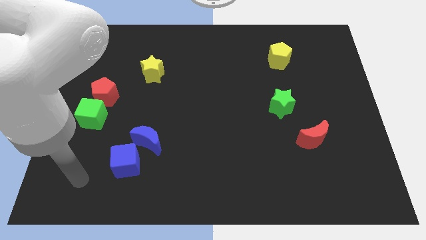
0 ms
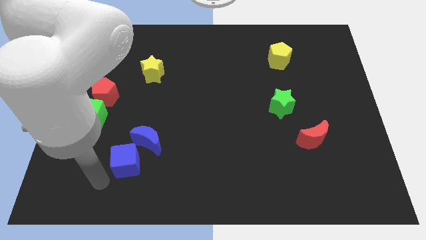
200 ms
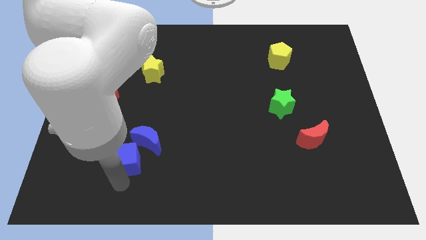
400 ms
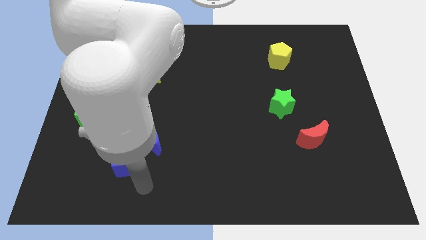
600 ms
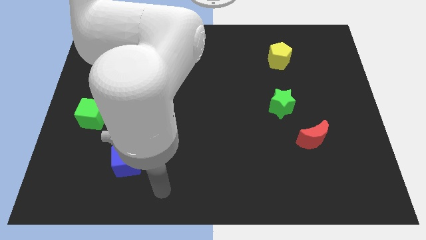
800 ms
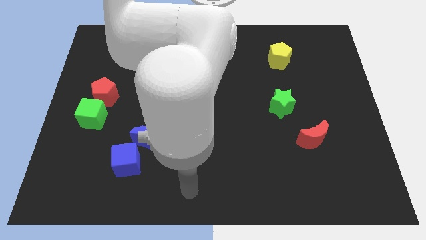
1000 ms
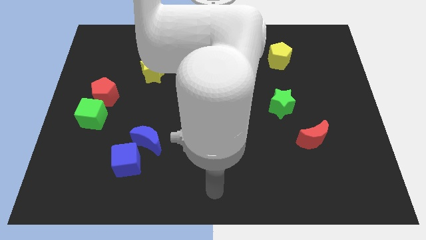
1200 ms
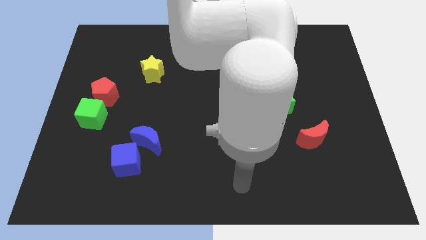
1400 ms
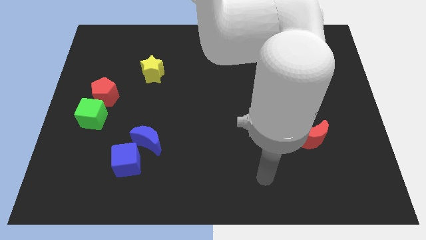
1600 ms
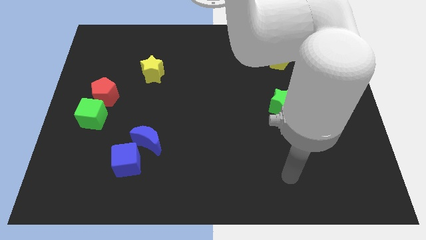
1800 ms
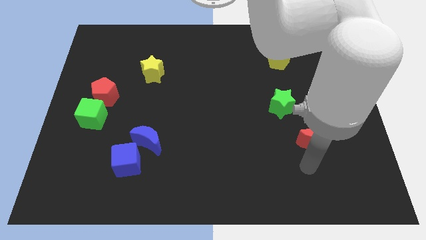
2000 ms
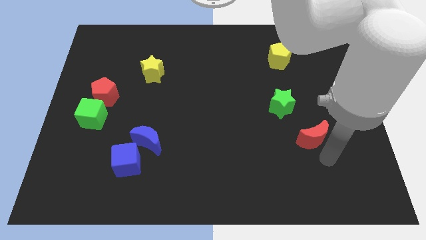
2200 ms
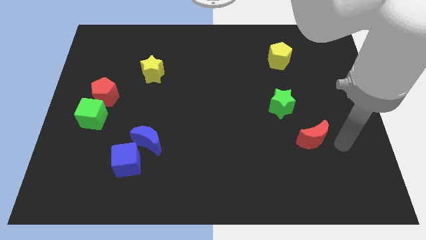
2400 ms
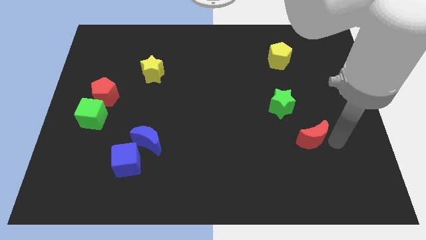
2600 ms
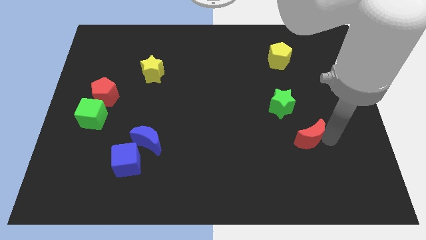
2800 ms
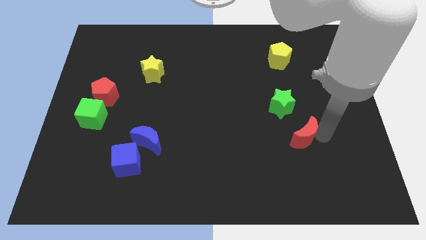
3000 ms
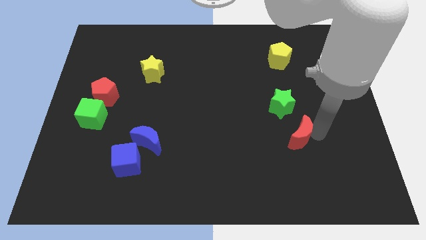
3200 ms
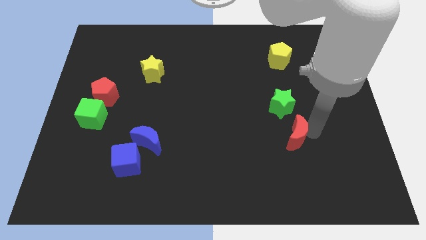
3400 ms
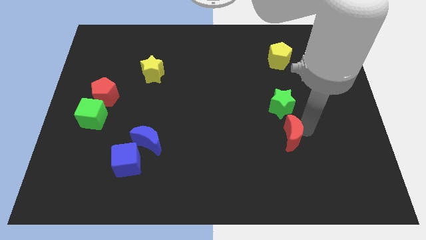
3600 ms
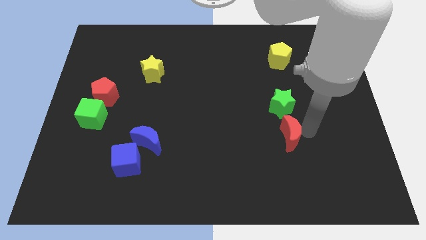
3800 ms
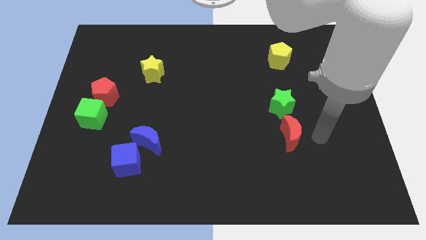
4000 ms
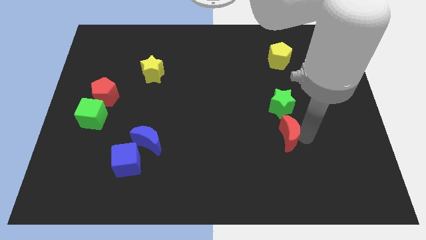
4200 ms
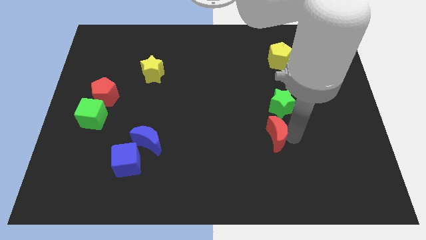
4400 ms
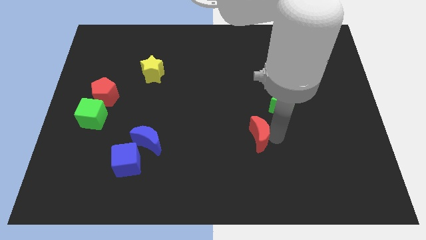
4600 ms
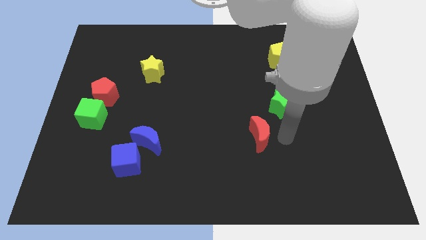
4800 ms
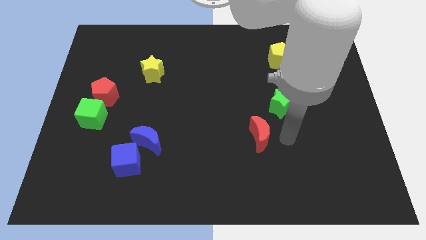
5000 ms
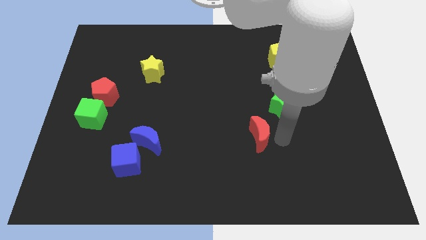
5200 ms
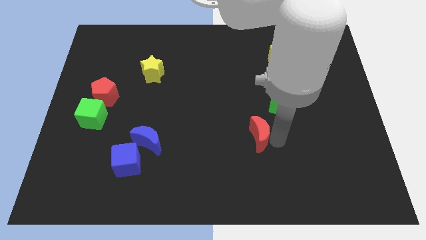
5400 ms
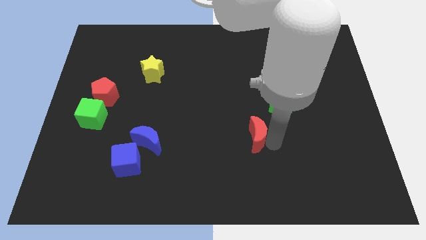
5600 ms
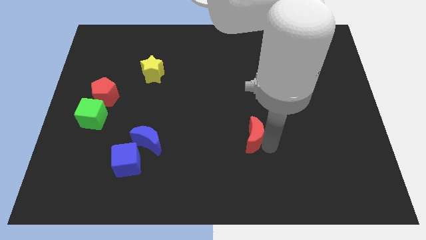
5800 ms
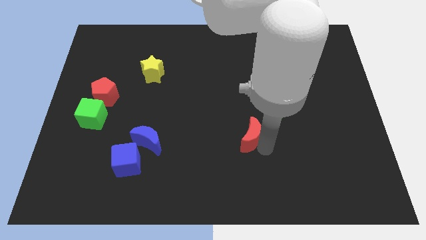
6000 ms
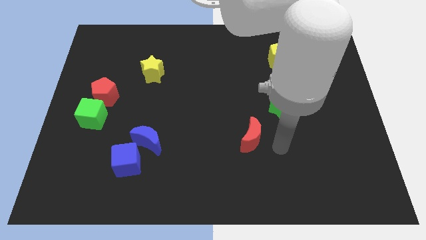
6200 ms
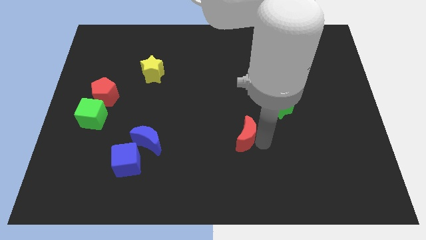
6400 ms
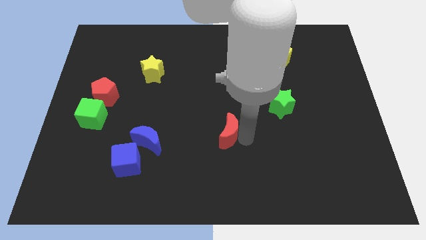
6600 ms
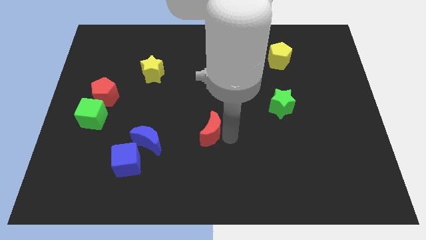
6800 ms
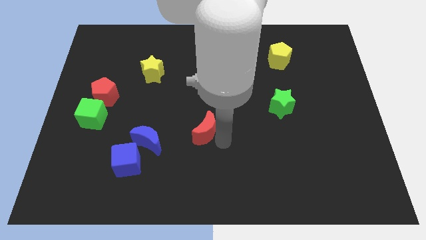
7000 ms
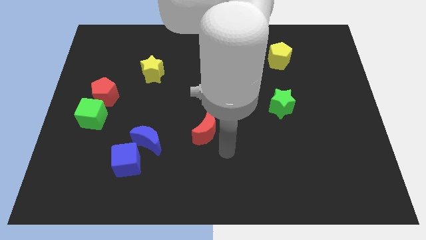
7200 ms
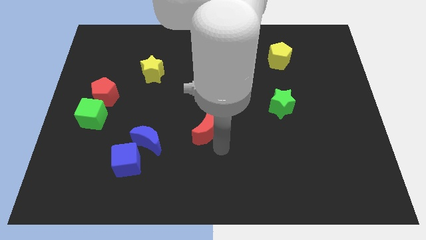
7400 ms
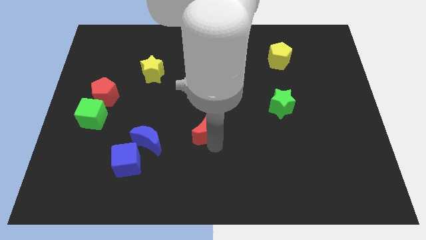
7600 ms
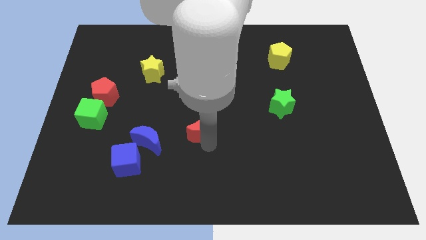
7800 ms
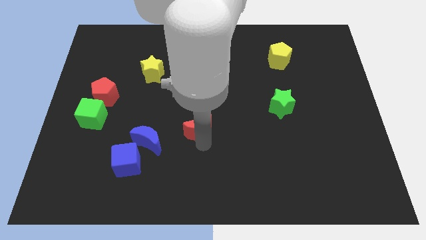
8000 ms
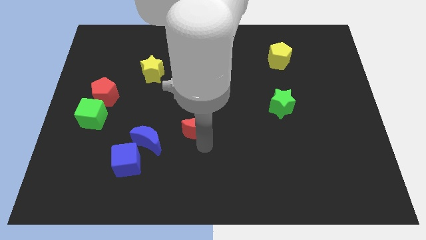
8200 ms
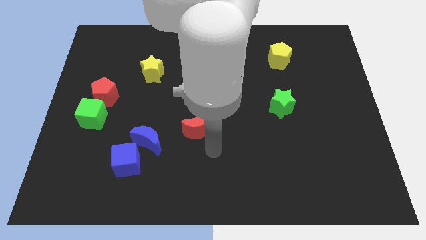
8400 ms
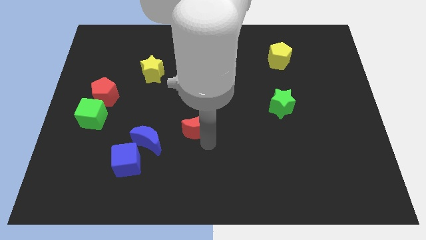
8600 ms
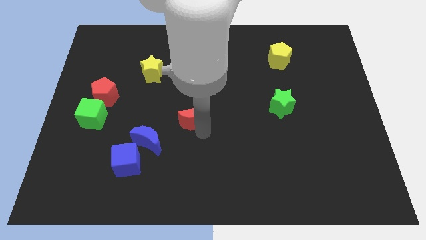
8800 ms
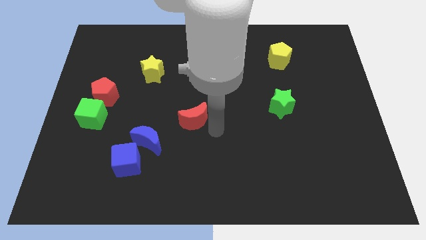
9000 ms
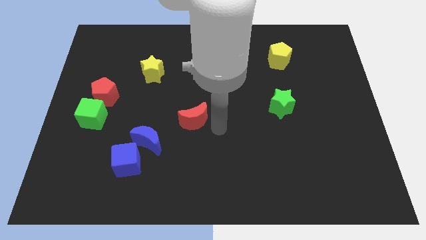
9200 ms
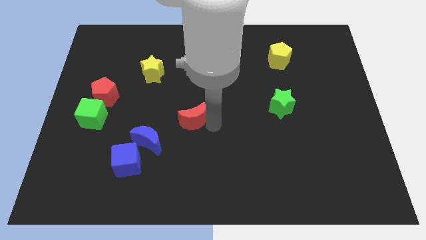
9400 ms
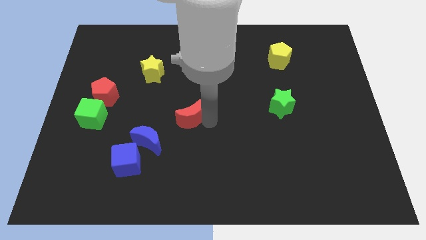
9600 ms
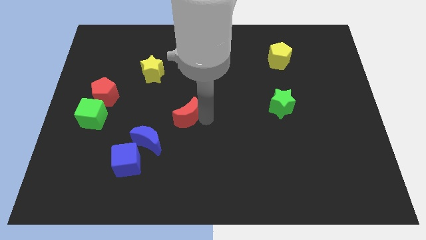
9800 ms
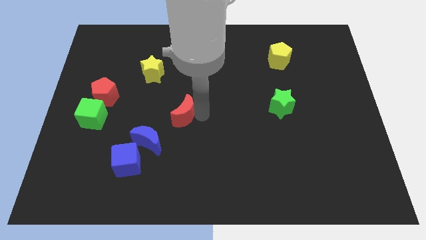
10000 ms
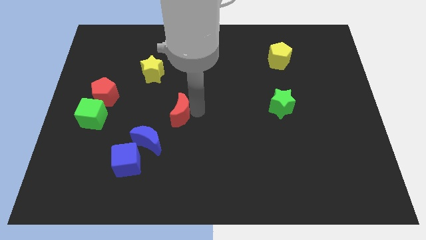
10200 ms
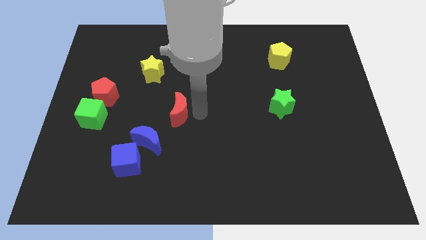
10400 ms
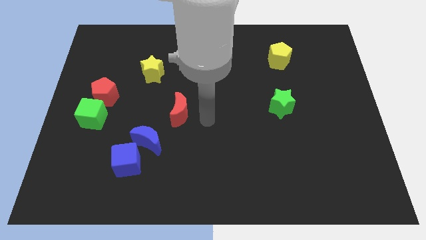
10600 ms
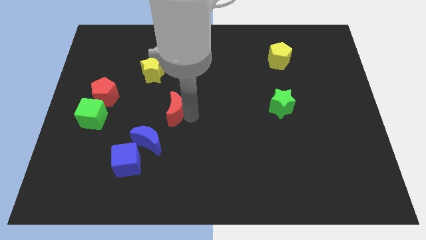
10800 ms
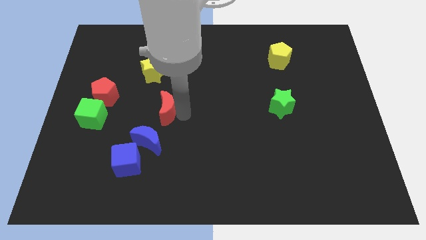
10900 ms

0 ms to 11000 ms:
push the red moon below the yellow star

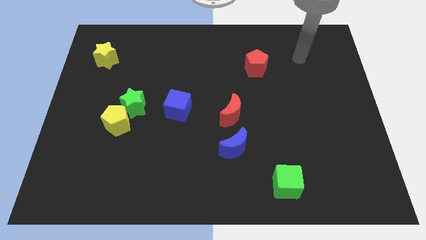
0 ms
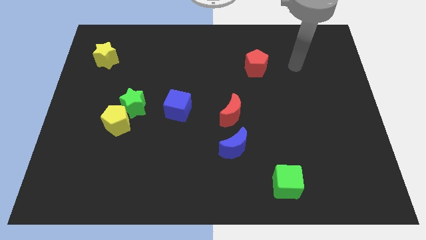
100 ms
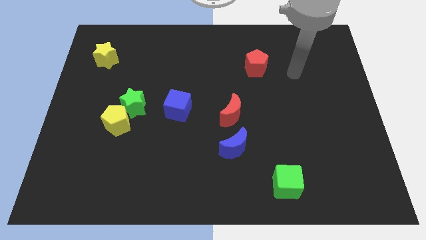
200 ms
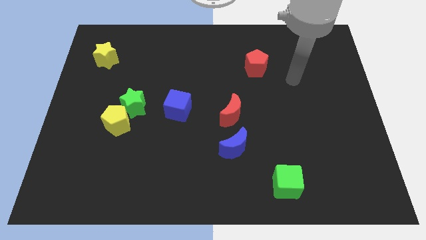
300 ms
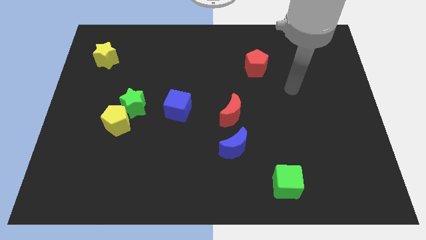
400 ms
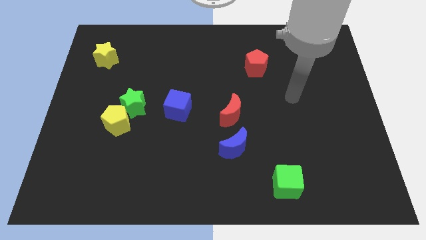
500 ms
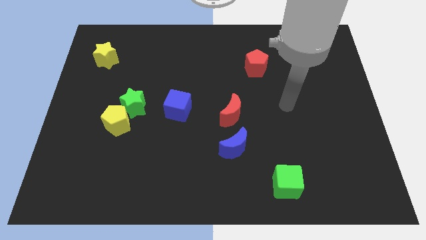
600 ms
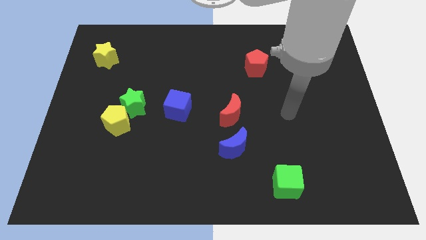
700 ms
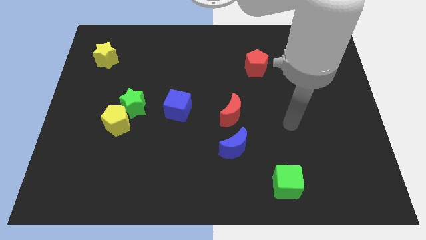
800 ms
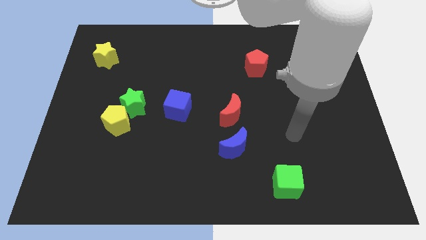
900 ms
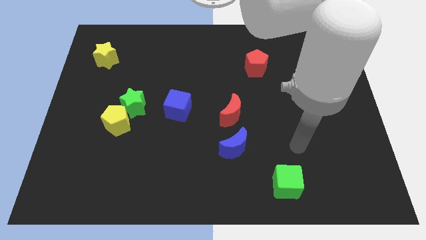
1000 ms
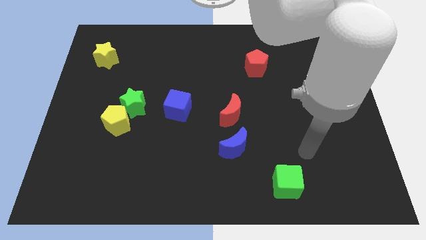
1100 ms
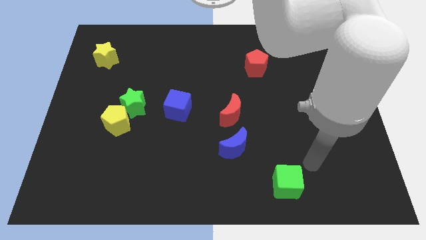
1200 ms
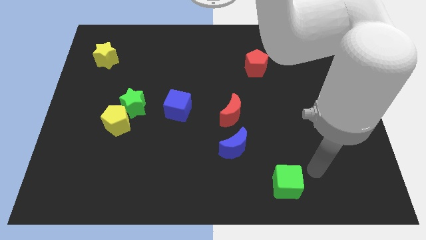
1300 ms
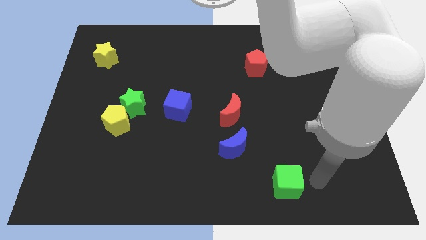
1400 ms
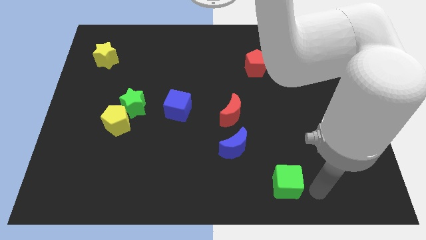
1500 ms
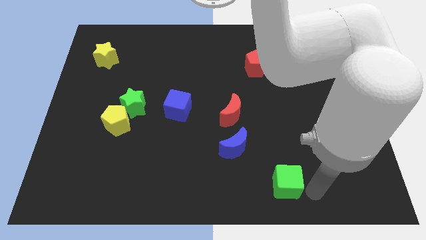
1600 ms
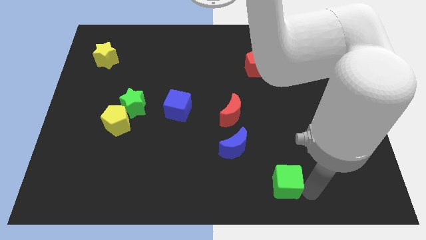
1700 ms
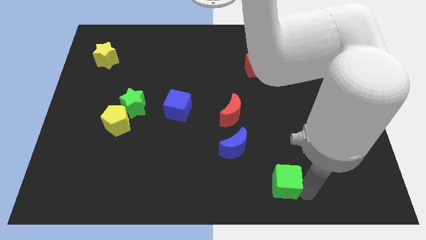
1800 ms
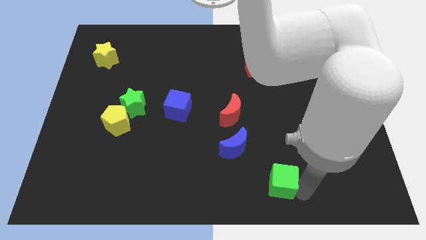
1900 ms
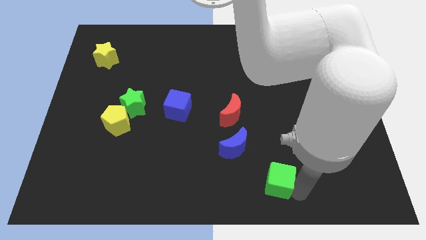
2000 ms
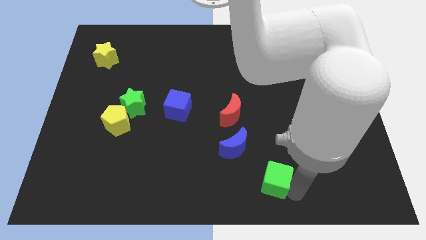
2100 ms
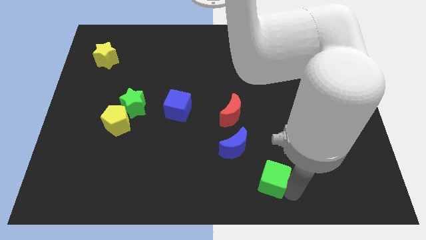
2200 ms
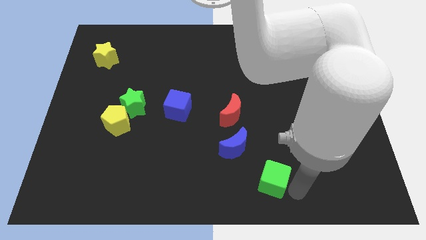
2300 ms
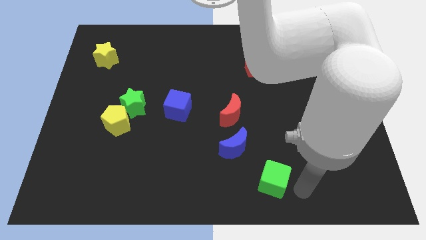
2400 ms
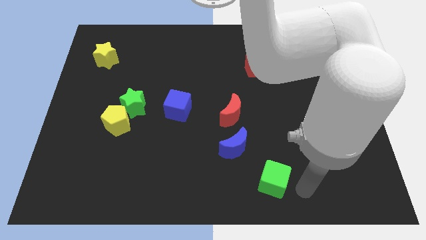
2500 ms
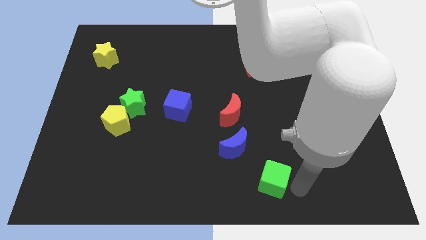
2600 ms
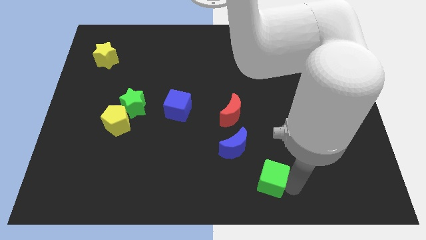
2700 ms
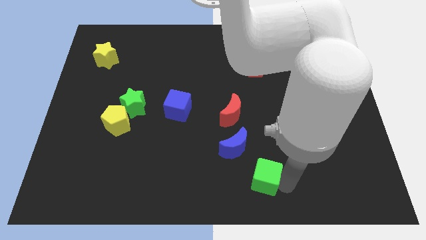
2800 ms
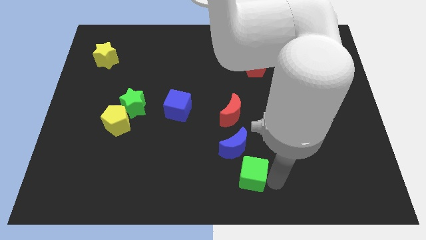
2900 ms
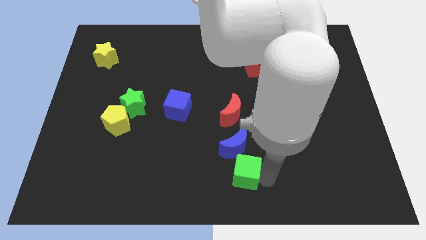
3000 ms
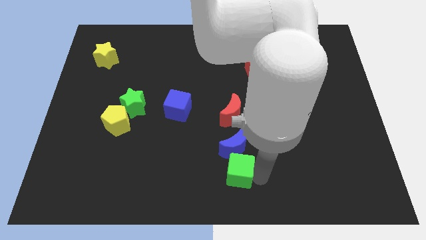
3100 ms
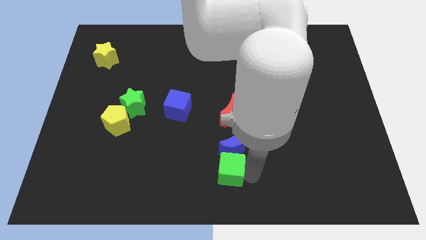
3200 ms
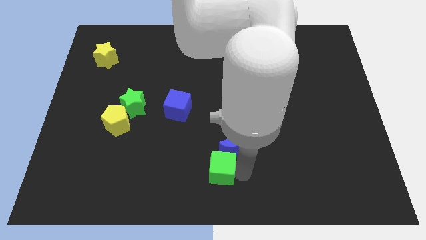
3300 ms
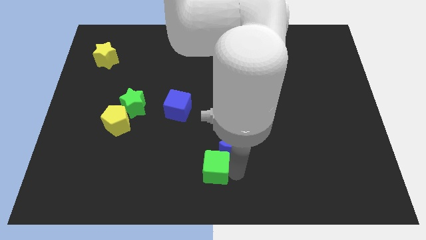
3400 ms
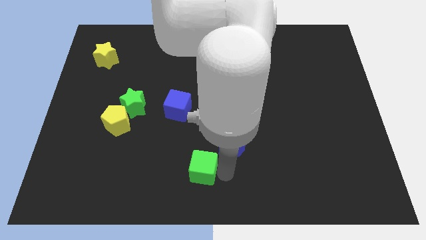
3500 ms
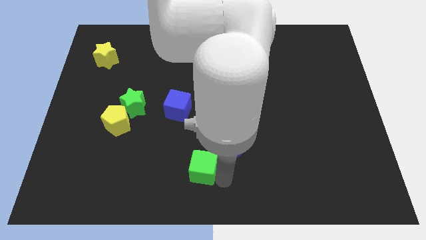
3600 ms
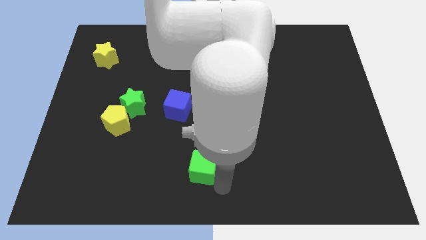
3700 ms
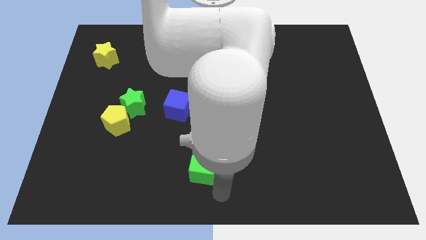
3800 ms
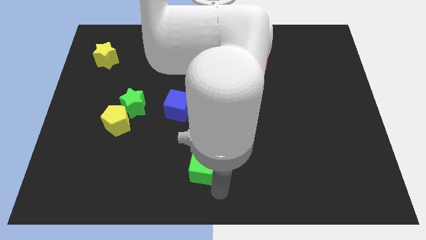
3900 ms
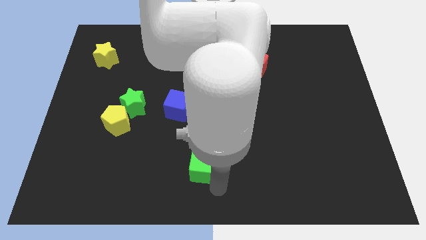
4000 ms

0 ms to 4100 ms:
put the green cube to the left side of the blue moon
